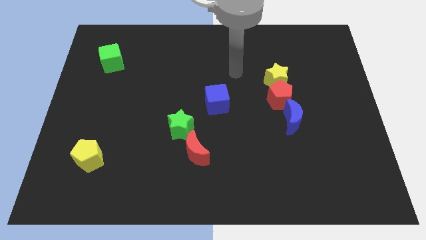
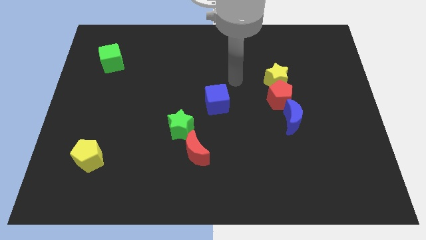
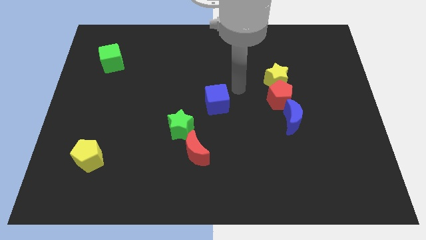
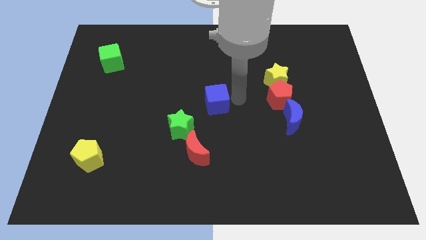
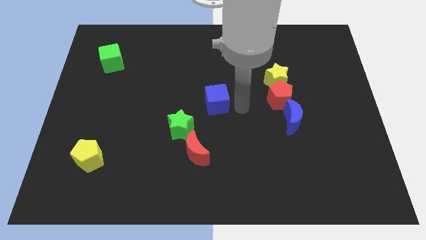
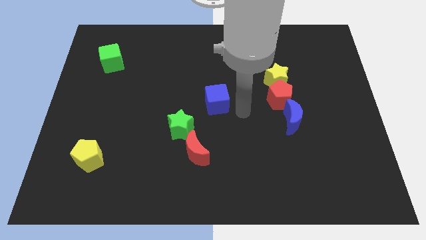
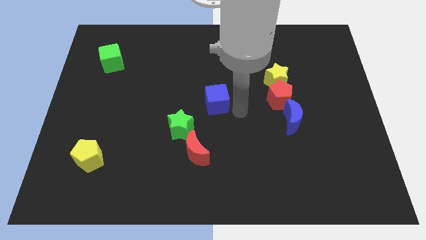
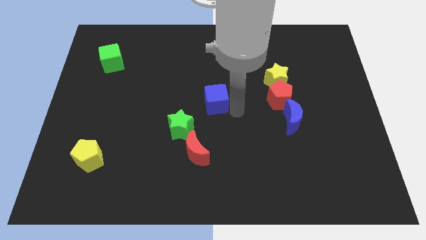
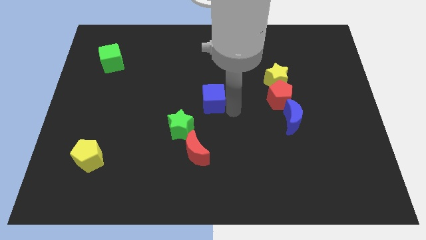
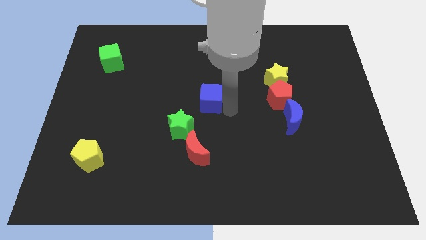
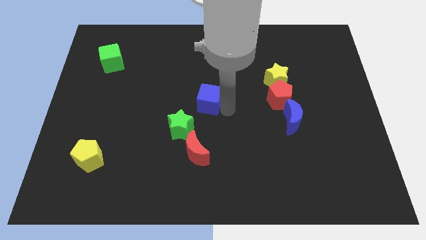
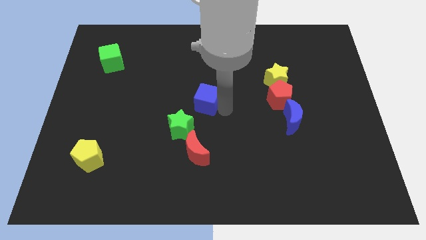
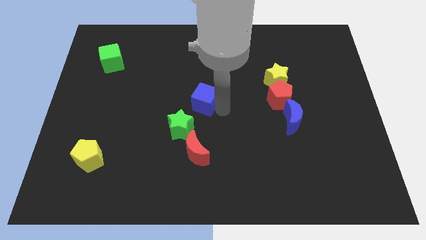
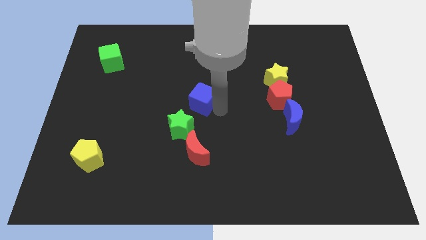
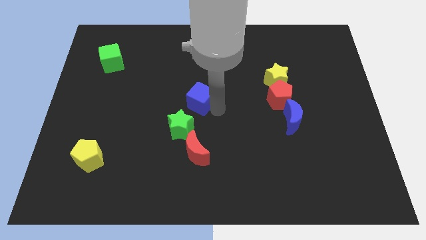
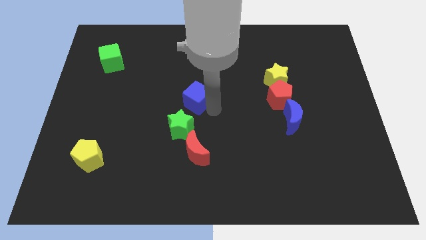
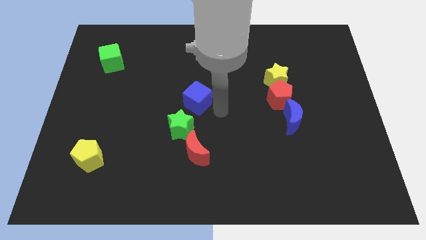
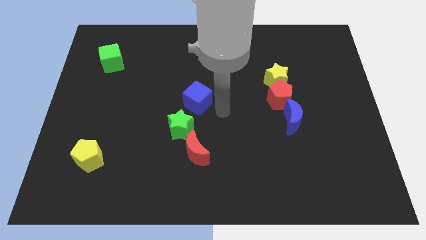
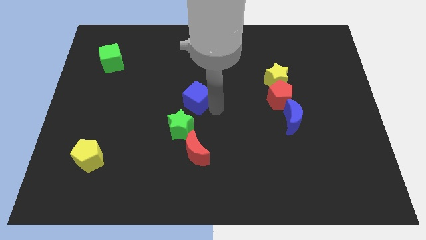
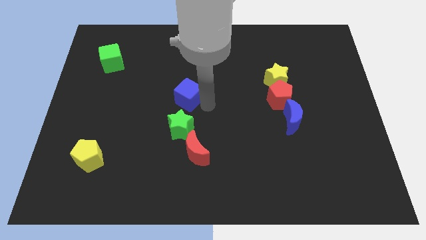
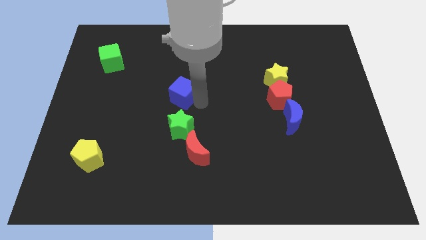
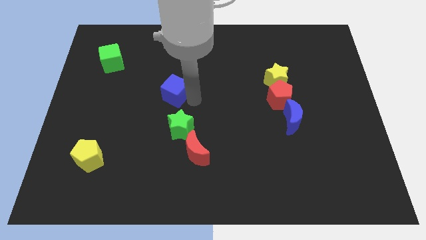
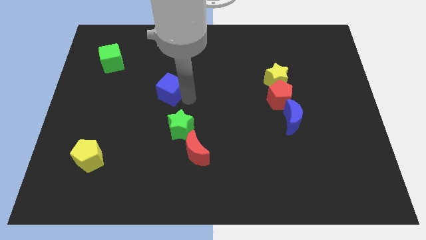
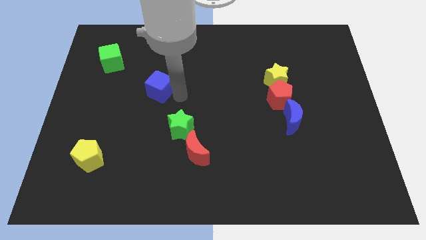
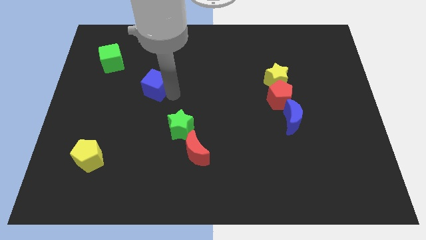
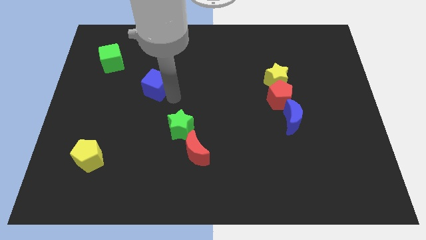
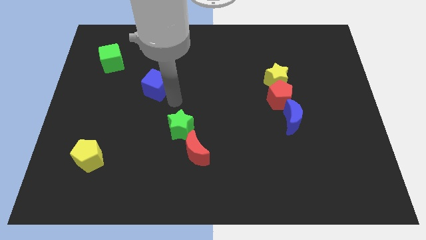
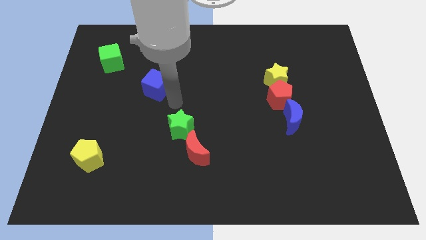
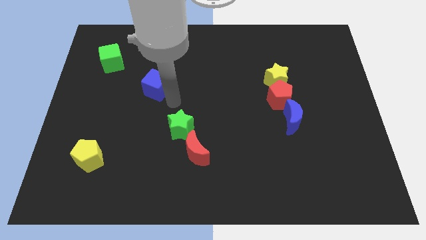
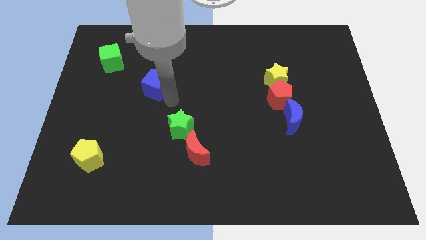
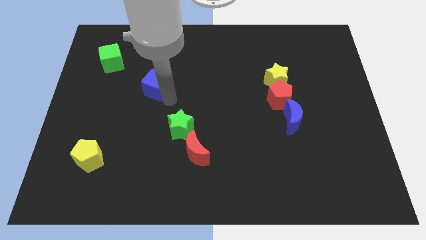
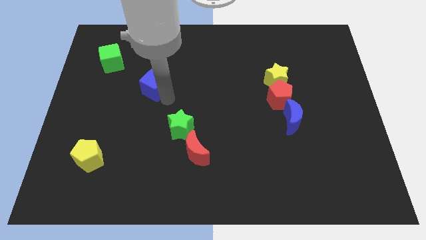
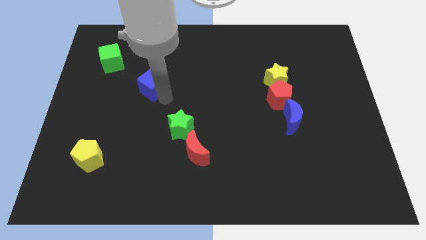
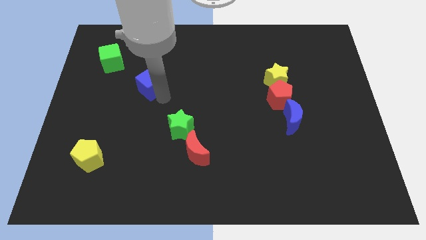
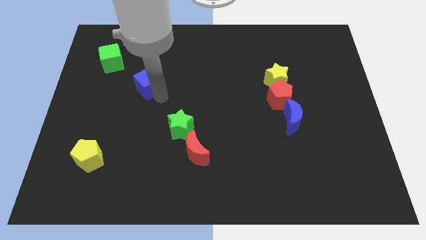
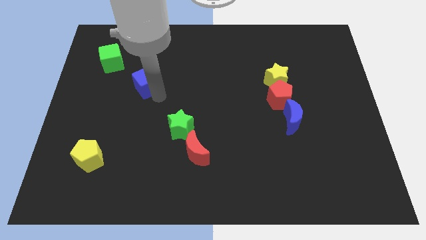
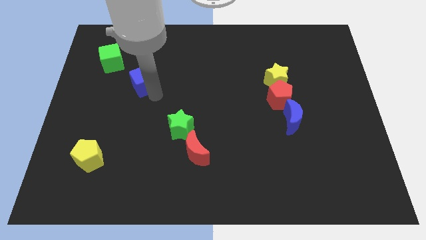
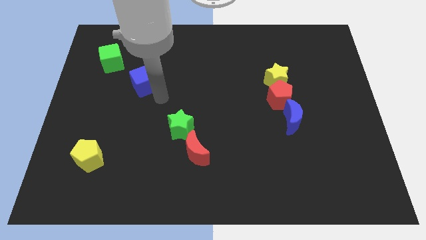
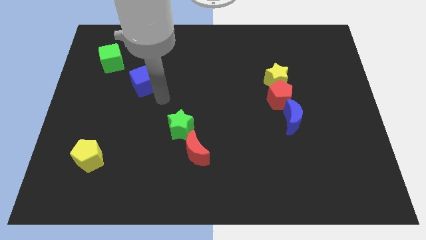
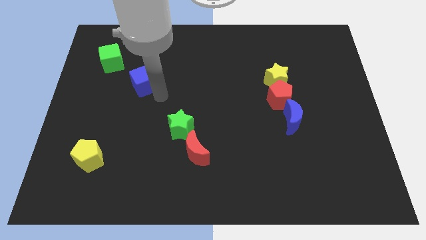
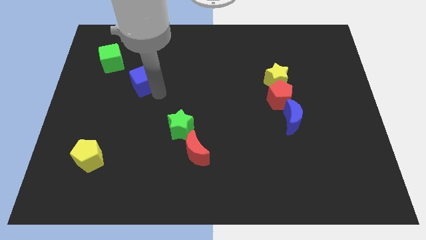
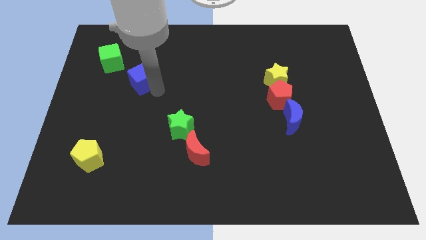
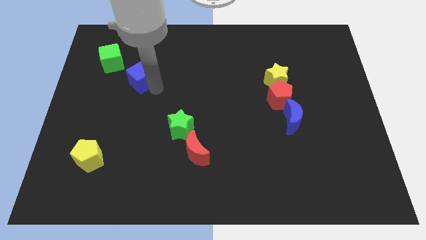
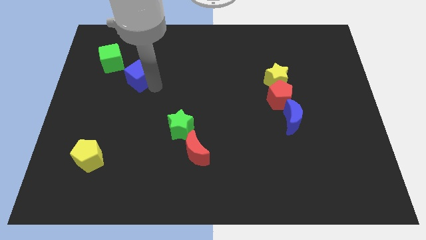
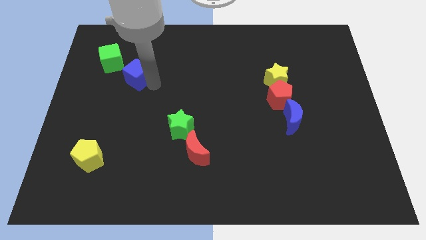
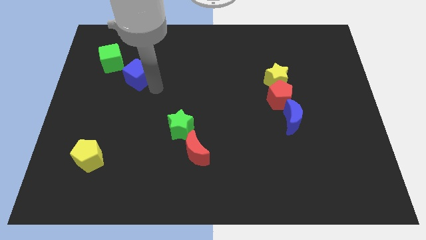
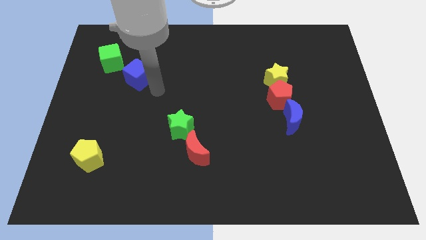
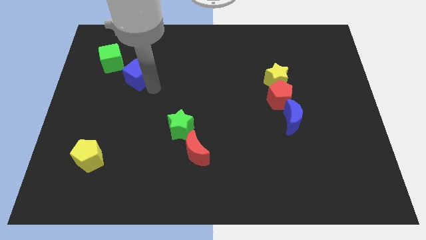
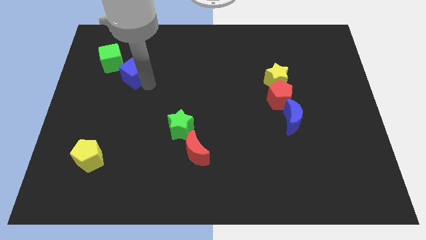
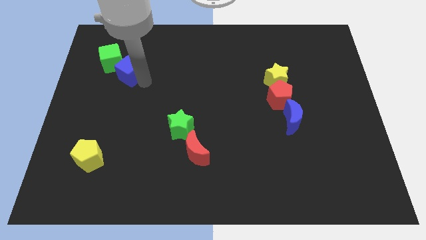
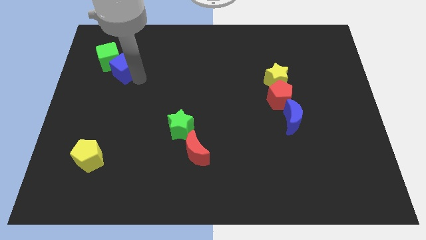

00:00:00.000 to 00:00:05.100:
move the blue cube towards the green cube

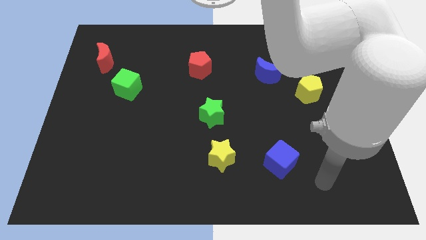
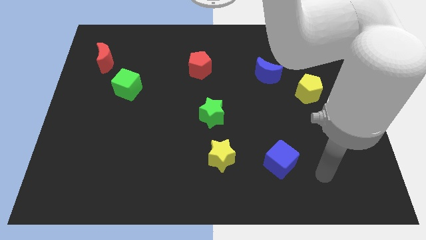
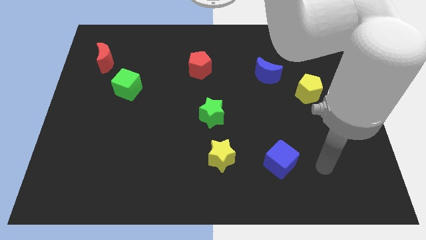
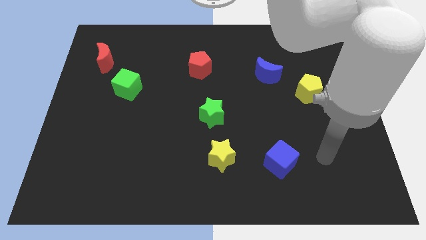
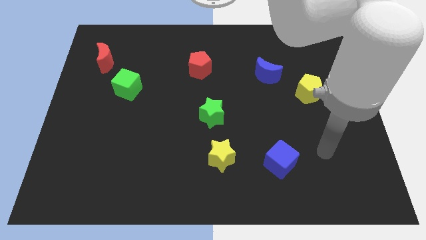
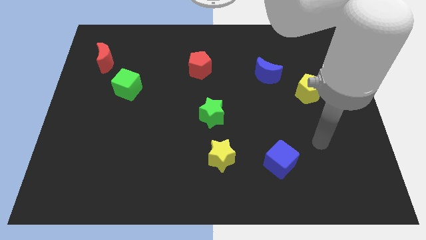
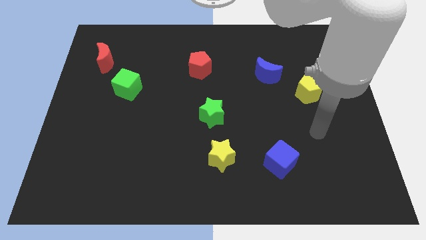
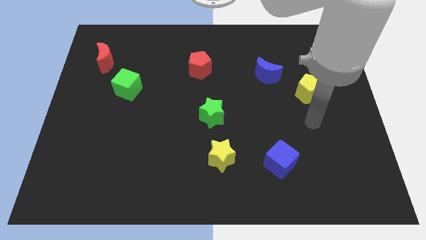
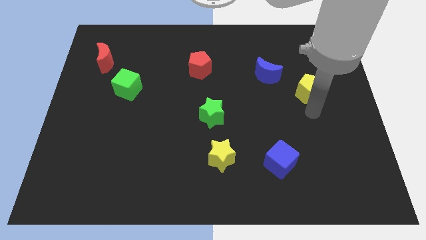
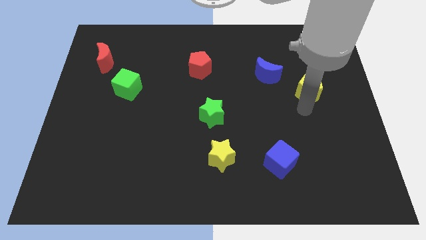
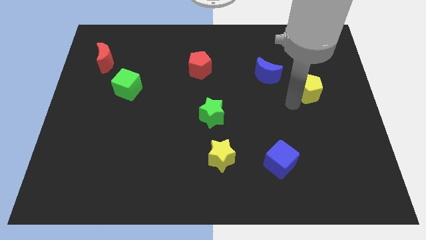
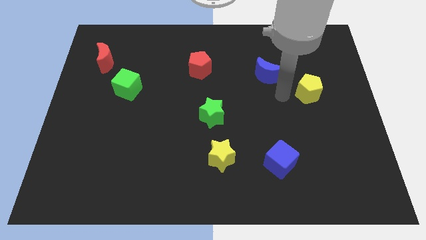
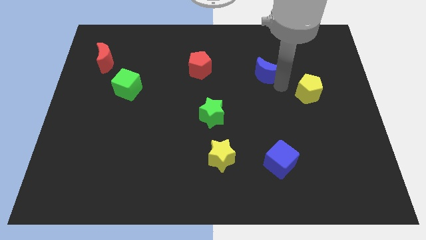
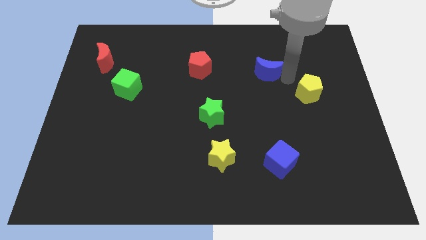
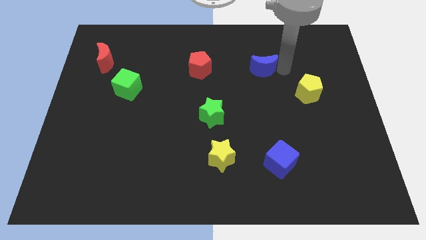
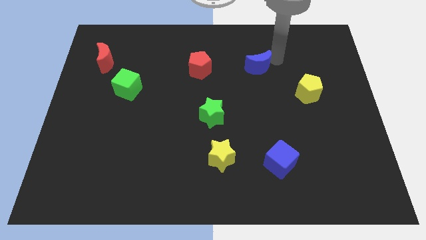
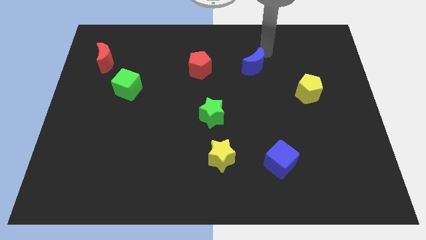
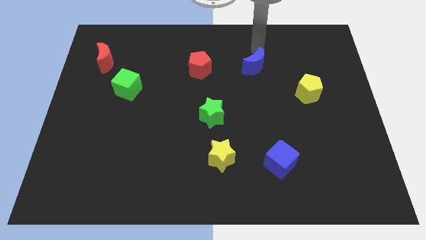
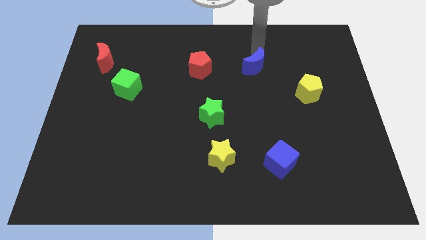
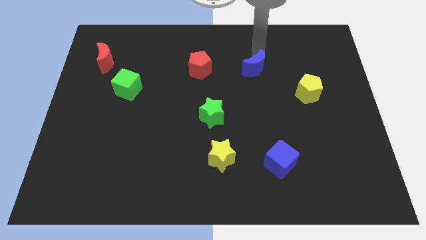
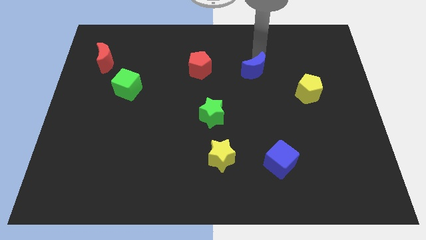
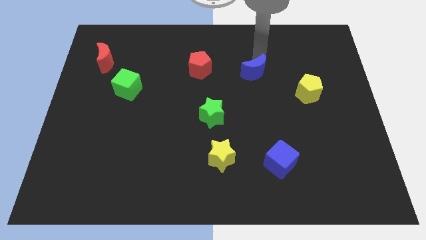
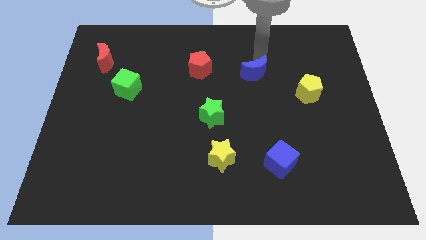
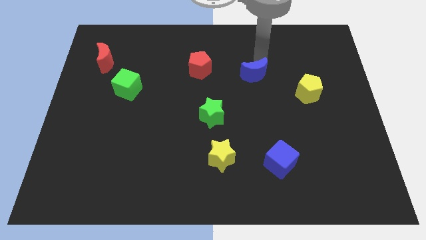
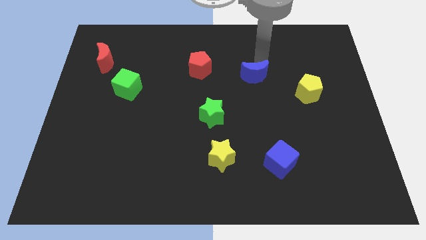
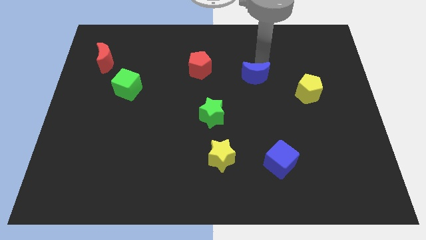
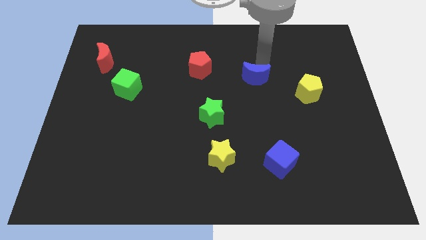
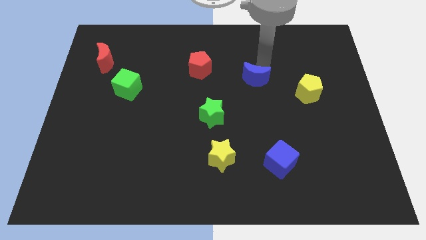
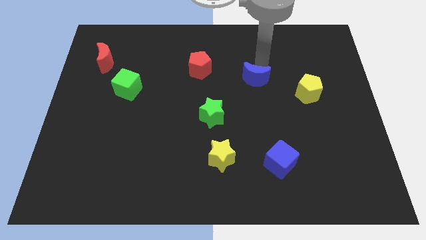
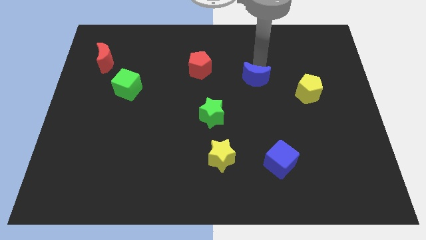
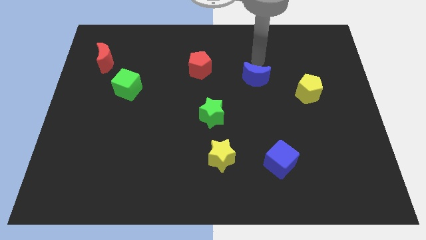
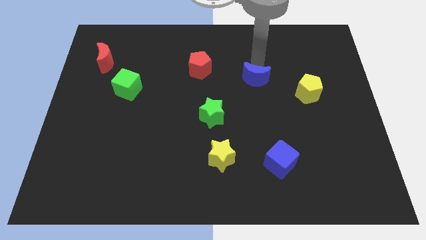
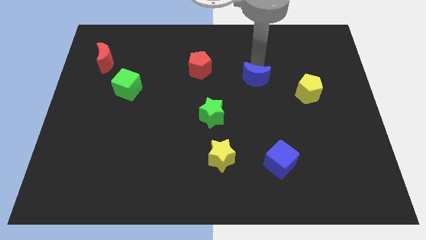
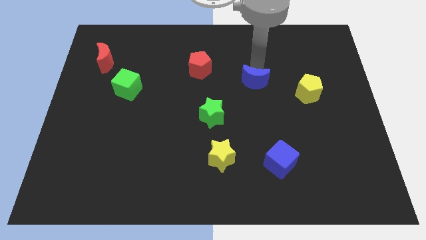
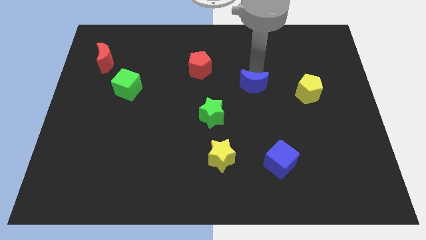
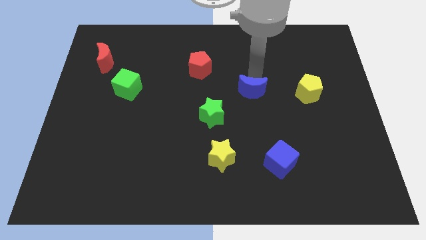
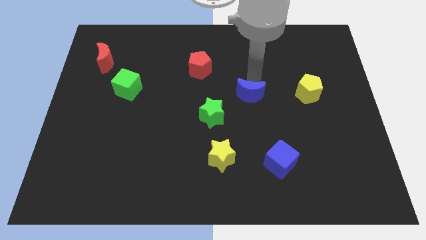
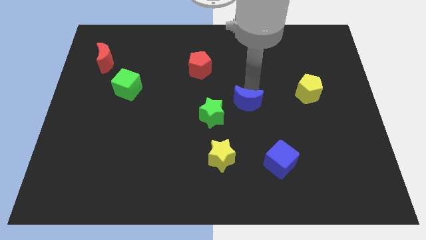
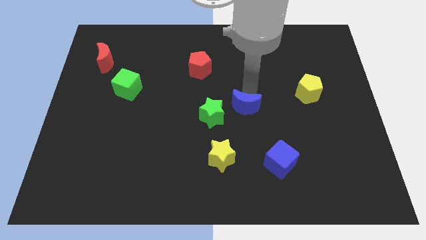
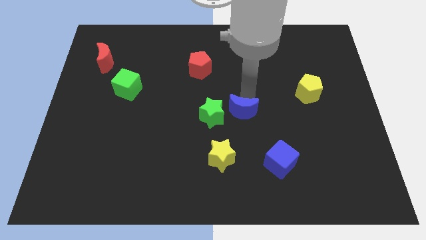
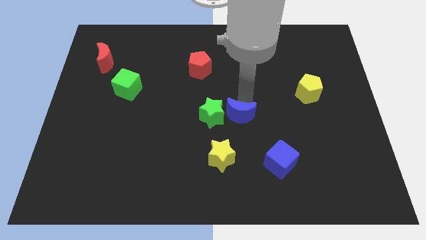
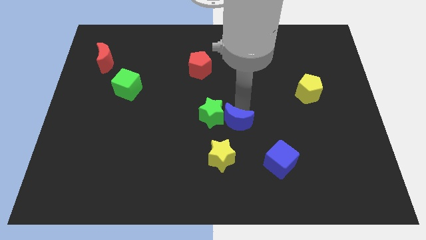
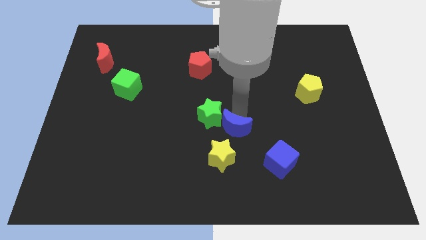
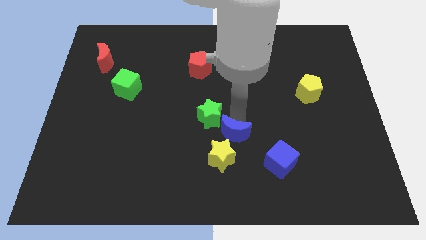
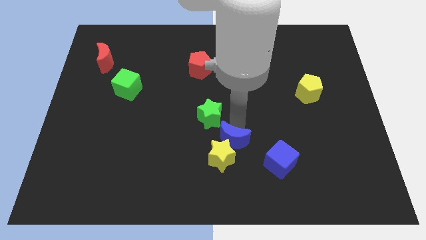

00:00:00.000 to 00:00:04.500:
slide the blue moon next to the yellow star
